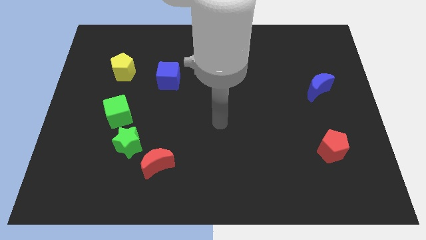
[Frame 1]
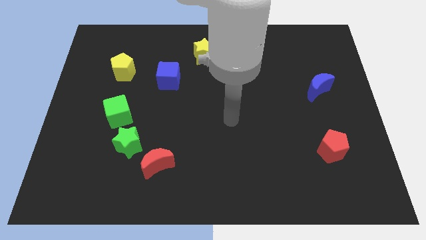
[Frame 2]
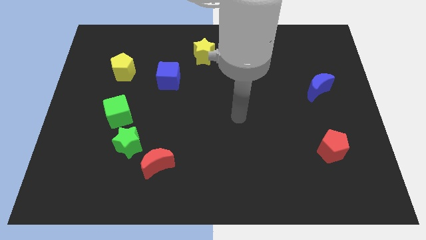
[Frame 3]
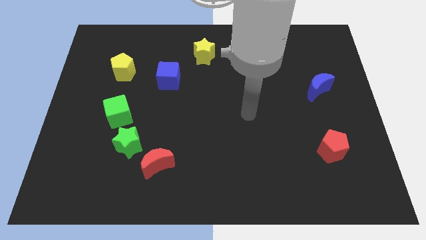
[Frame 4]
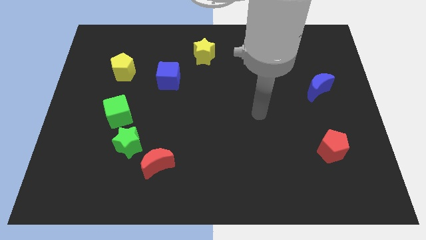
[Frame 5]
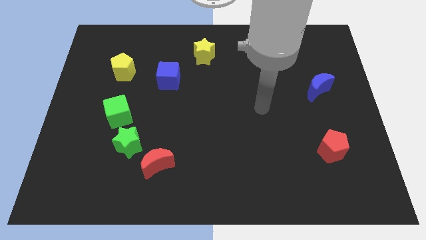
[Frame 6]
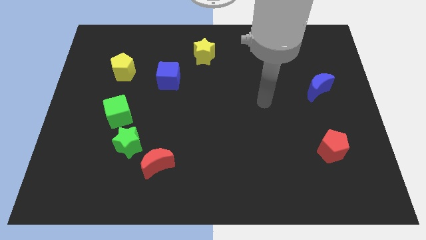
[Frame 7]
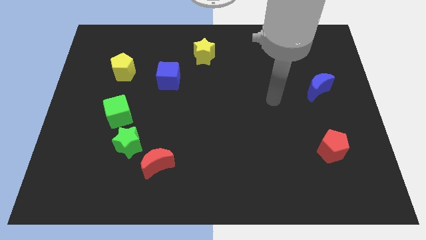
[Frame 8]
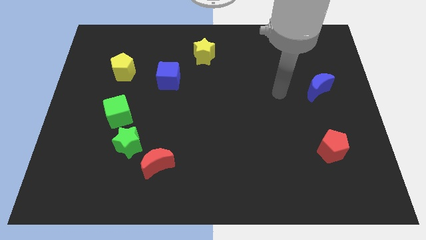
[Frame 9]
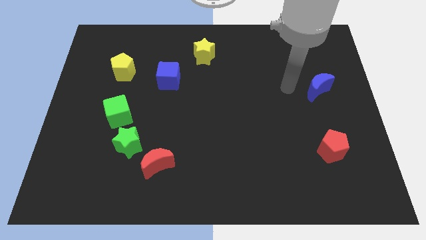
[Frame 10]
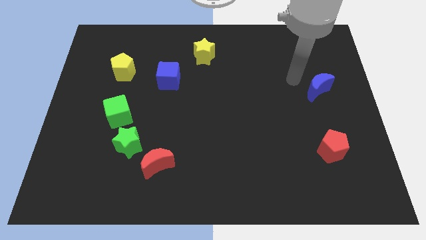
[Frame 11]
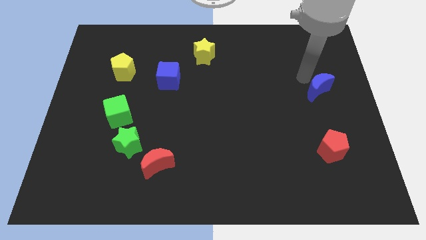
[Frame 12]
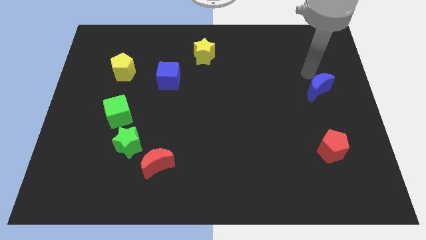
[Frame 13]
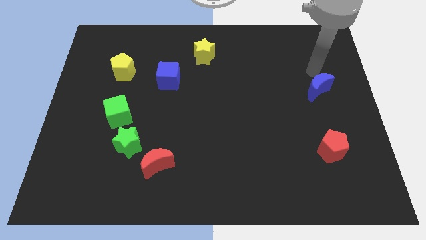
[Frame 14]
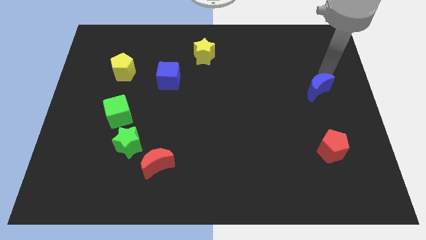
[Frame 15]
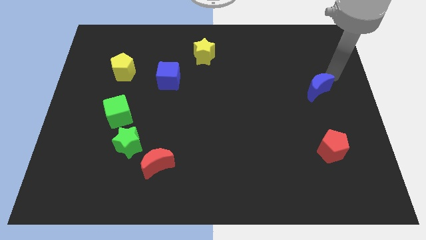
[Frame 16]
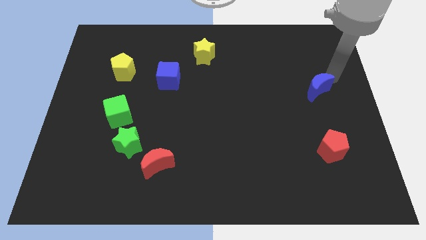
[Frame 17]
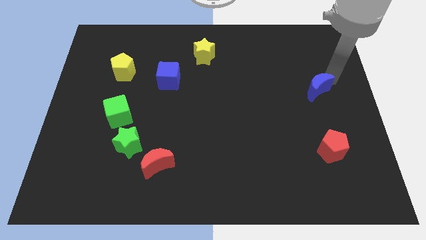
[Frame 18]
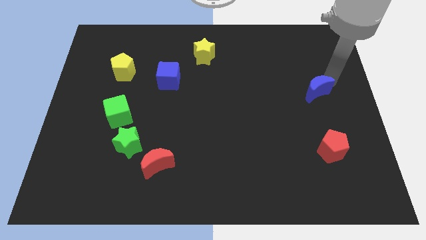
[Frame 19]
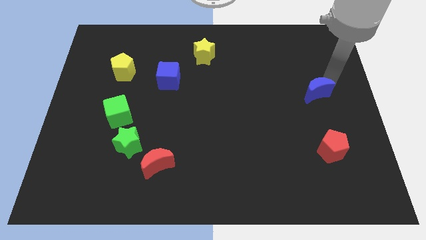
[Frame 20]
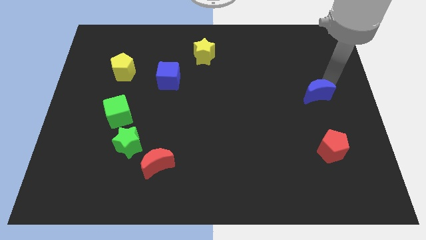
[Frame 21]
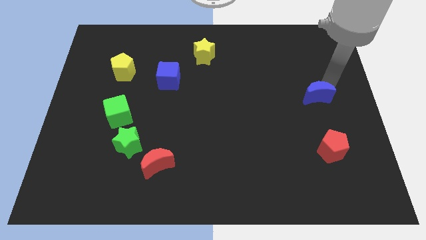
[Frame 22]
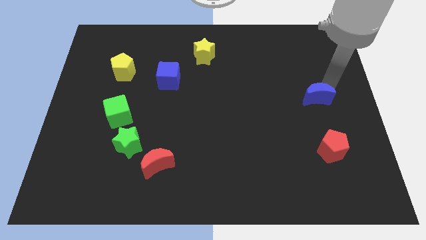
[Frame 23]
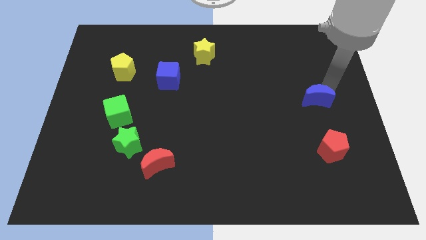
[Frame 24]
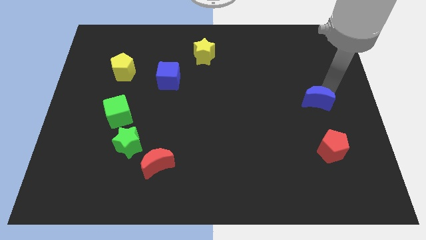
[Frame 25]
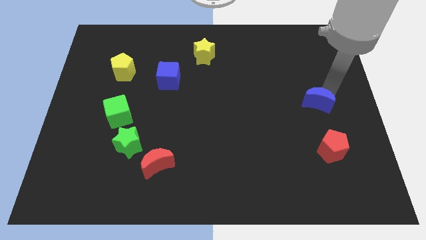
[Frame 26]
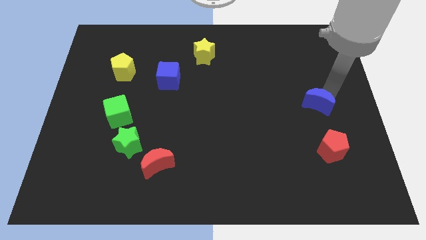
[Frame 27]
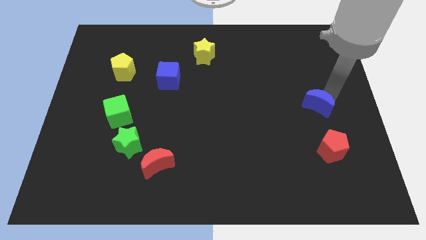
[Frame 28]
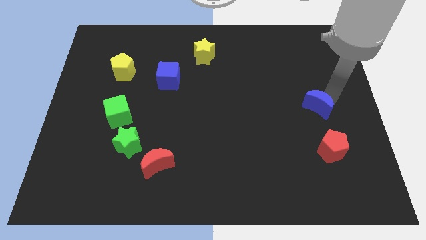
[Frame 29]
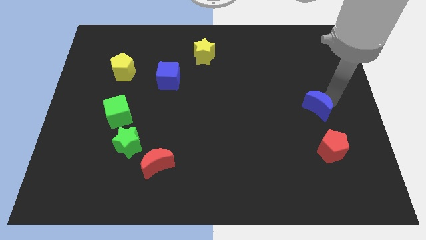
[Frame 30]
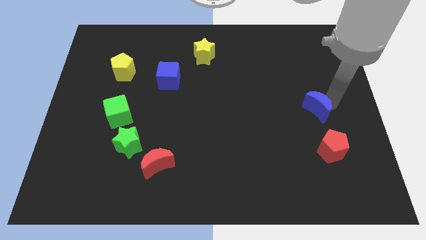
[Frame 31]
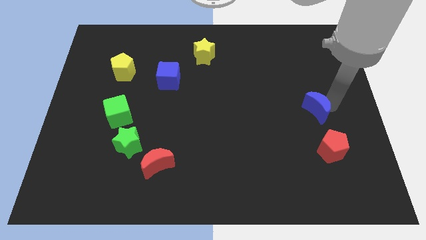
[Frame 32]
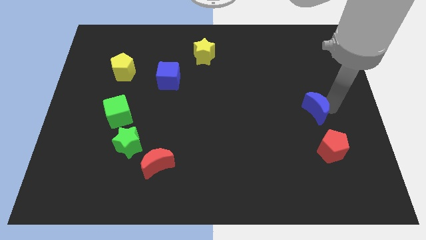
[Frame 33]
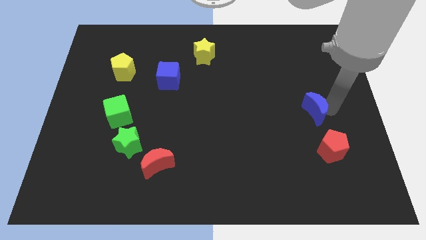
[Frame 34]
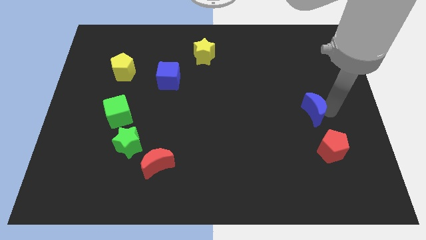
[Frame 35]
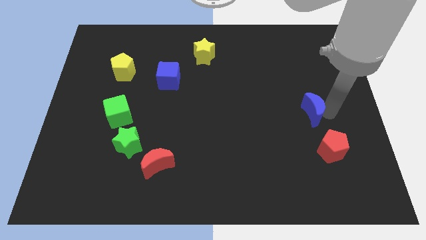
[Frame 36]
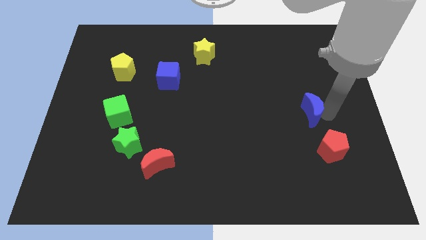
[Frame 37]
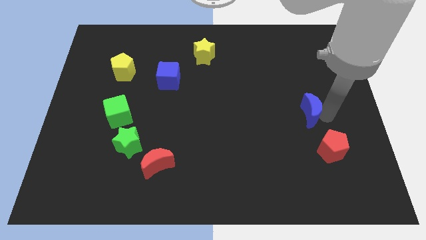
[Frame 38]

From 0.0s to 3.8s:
slightly slide the blue moon downwards and to the left diagonally

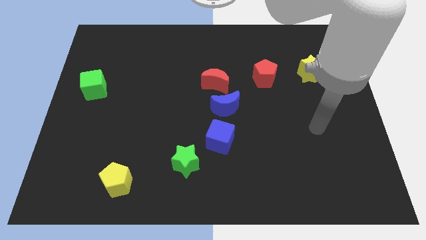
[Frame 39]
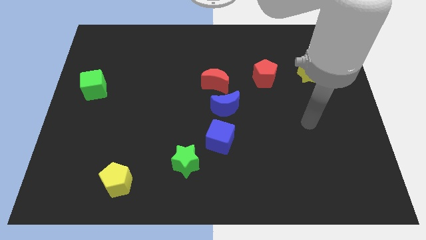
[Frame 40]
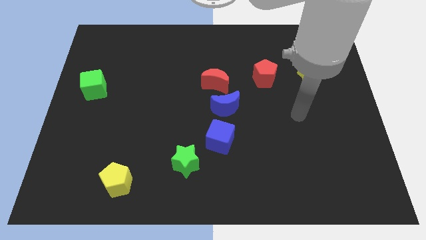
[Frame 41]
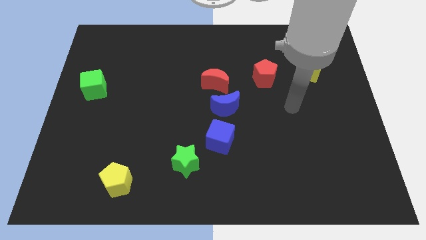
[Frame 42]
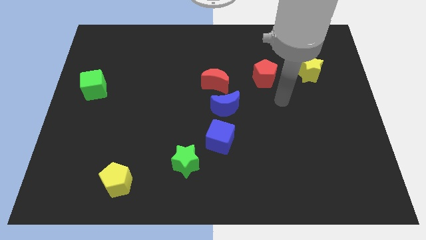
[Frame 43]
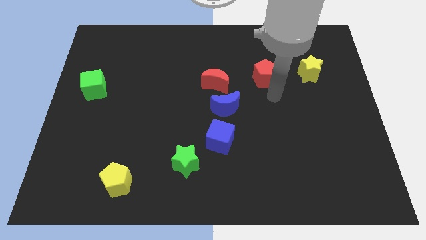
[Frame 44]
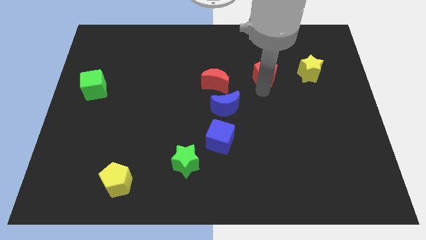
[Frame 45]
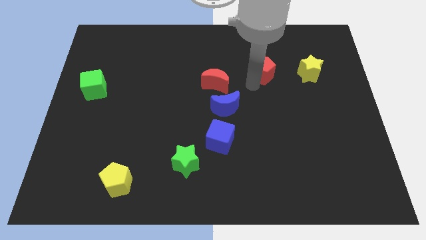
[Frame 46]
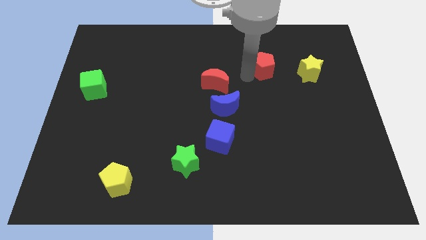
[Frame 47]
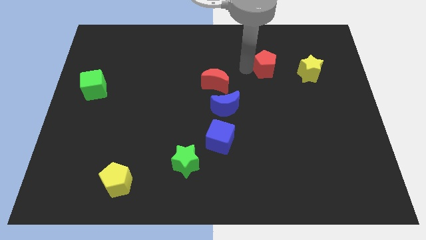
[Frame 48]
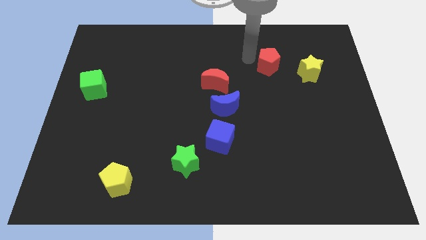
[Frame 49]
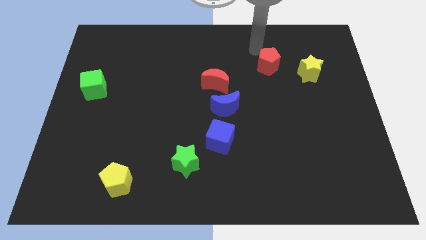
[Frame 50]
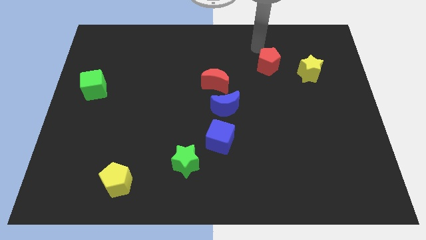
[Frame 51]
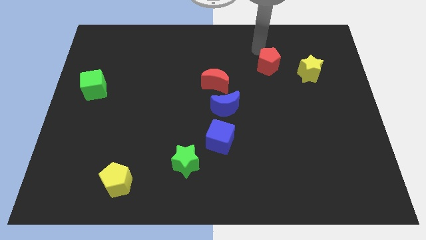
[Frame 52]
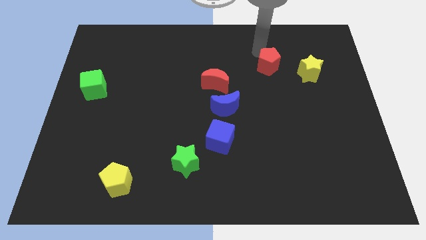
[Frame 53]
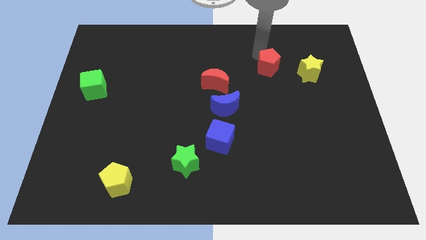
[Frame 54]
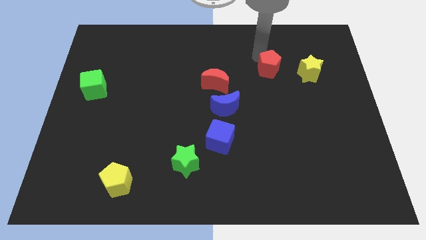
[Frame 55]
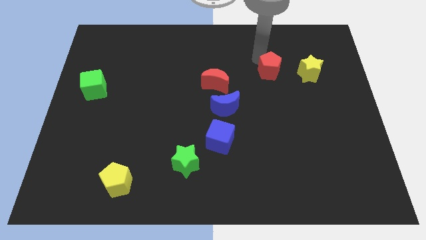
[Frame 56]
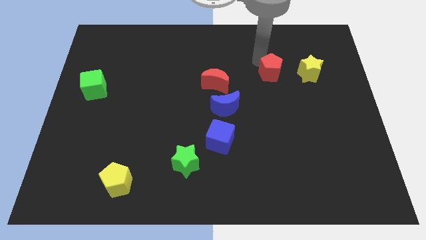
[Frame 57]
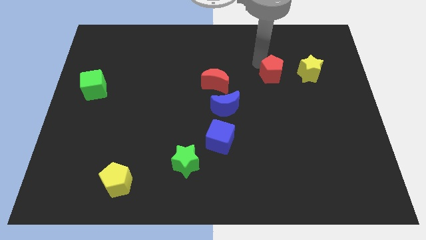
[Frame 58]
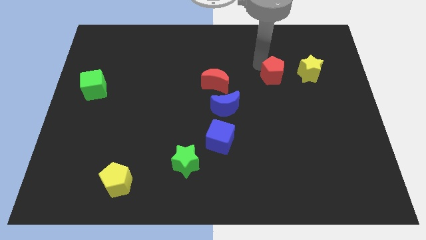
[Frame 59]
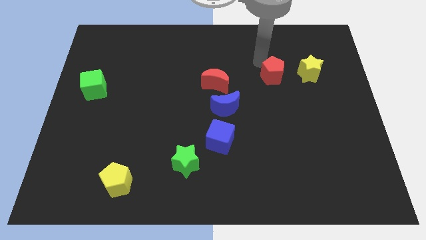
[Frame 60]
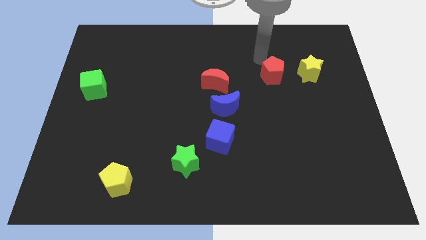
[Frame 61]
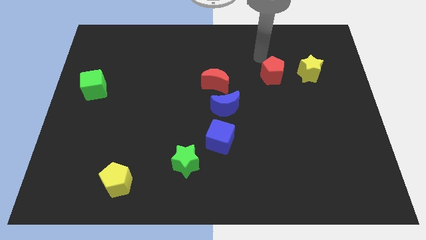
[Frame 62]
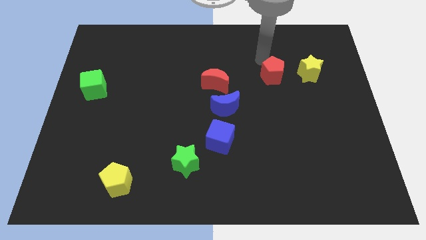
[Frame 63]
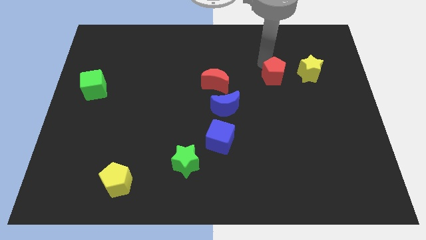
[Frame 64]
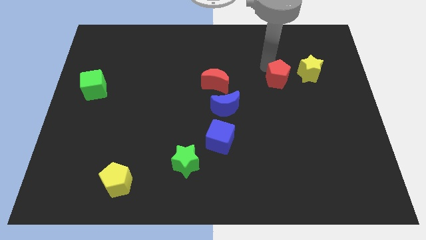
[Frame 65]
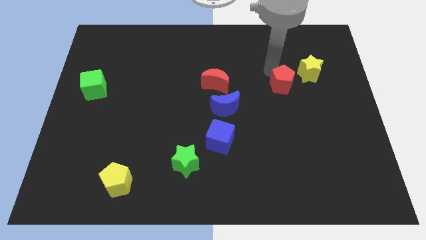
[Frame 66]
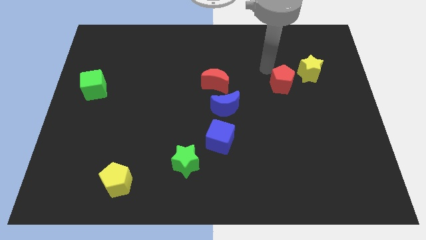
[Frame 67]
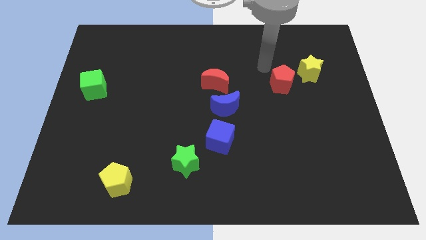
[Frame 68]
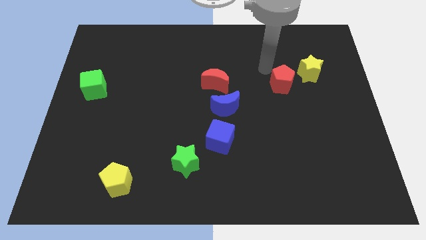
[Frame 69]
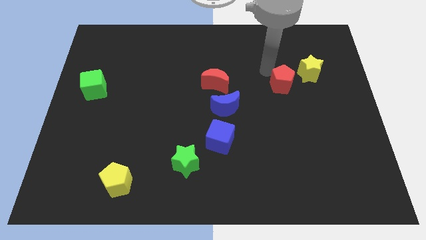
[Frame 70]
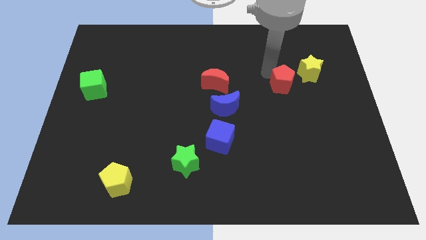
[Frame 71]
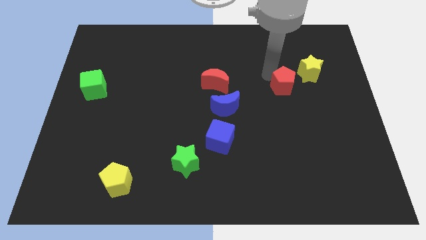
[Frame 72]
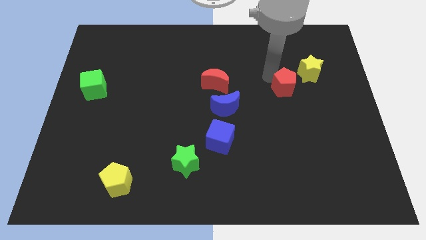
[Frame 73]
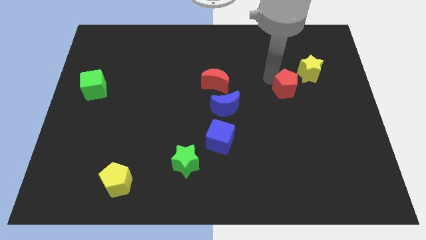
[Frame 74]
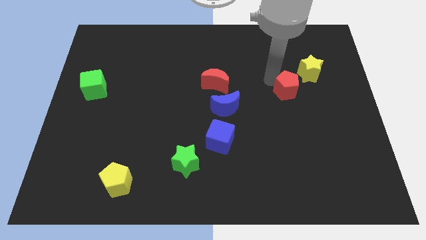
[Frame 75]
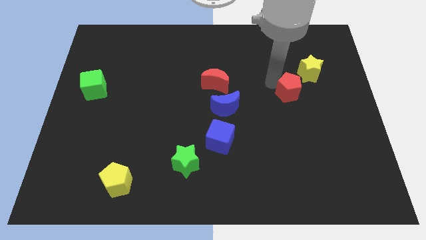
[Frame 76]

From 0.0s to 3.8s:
slightly push the red pentagon downwards and then right

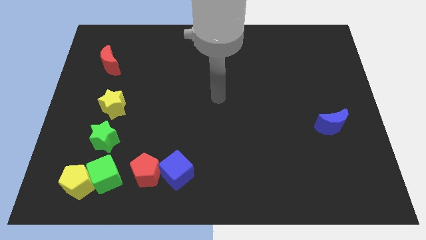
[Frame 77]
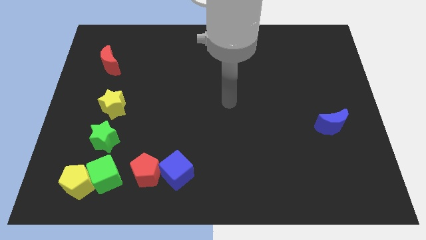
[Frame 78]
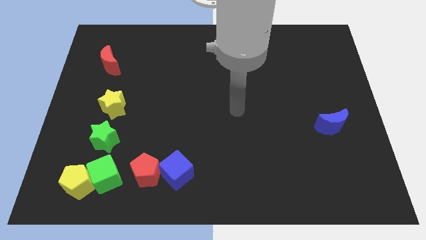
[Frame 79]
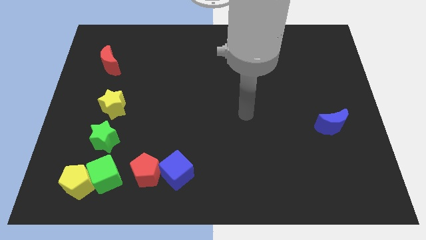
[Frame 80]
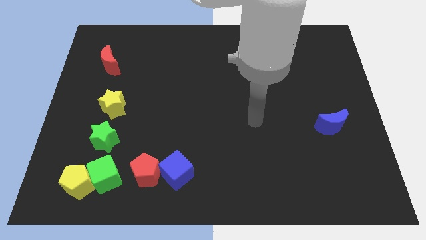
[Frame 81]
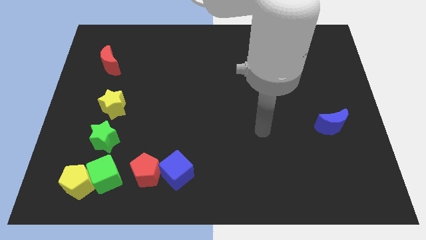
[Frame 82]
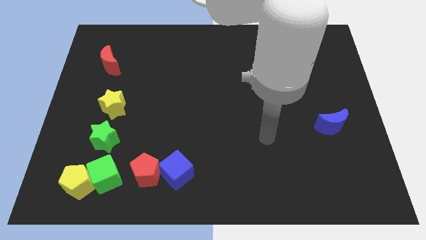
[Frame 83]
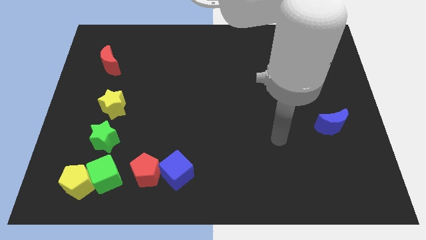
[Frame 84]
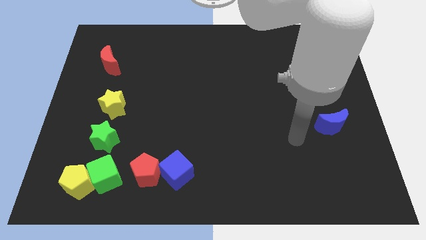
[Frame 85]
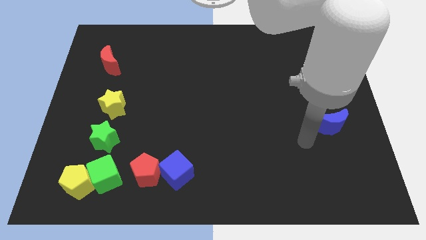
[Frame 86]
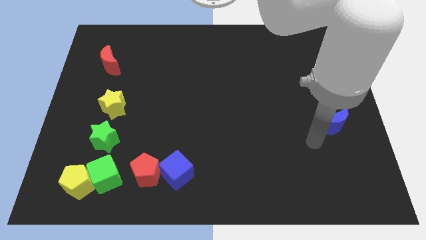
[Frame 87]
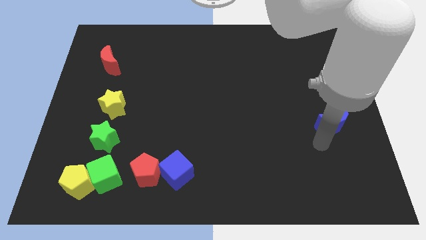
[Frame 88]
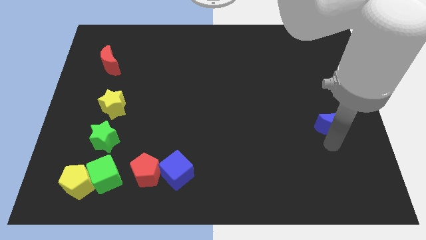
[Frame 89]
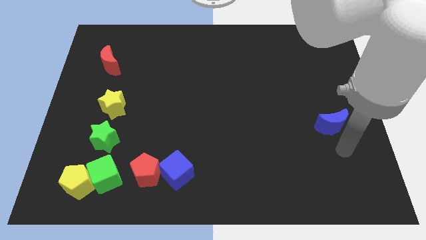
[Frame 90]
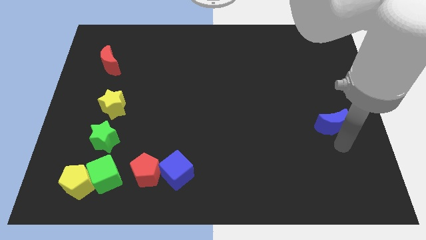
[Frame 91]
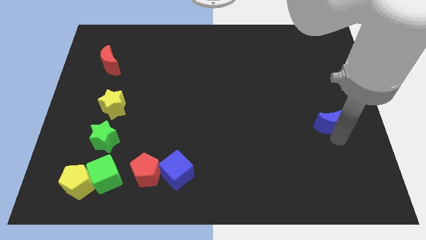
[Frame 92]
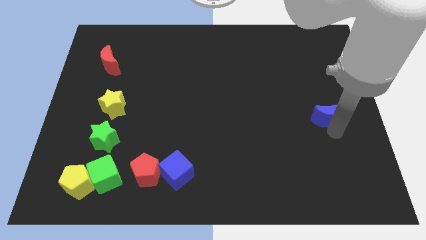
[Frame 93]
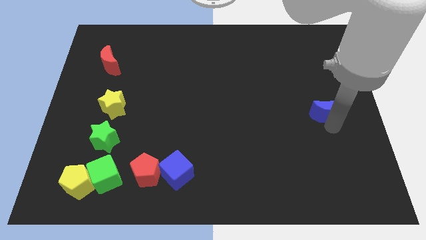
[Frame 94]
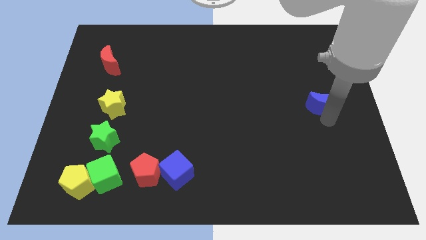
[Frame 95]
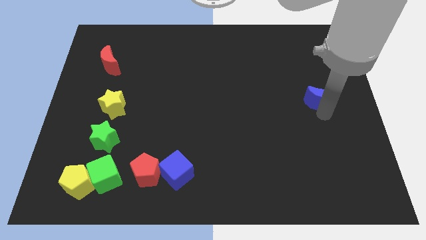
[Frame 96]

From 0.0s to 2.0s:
slightly move the blue moon upwards
